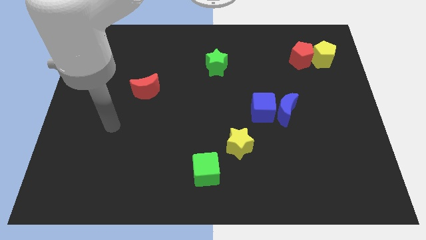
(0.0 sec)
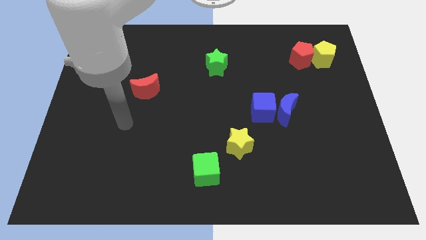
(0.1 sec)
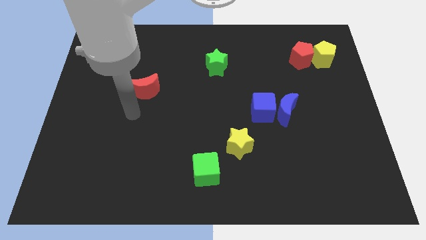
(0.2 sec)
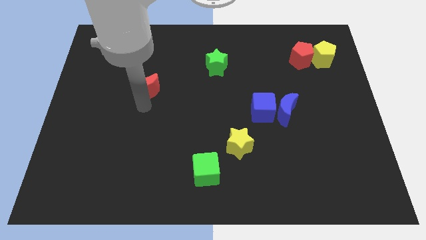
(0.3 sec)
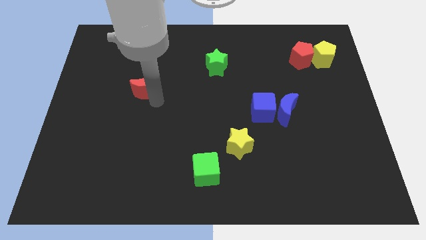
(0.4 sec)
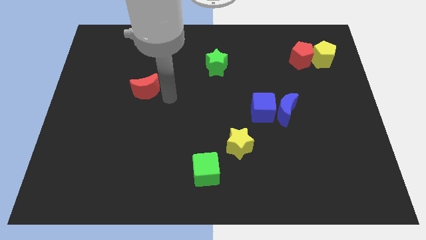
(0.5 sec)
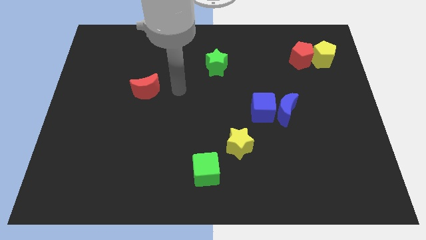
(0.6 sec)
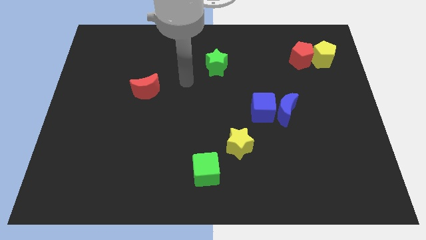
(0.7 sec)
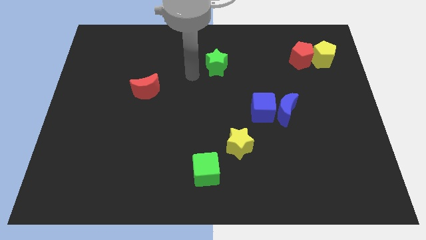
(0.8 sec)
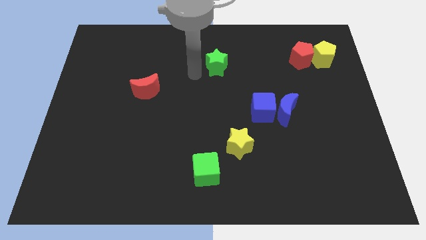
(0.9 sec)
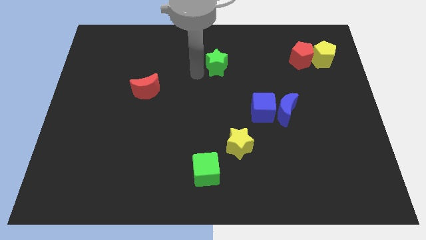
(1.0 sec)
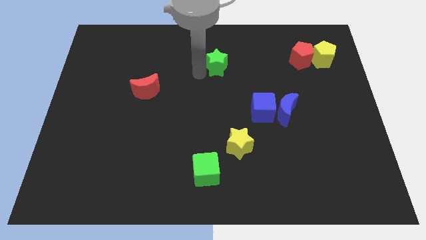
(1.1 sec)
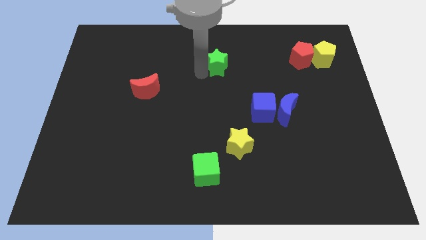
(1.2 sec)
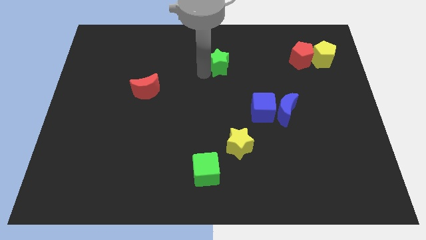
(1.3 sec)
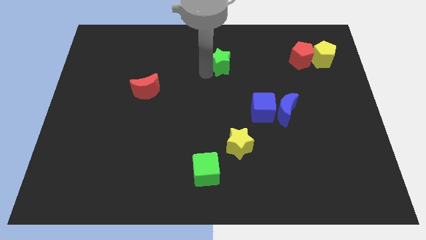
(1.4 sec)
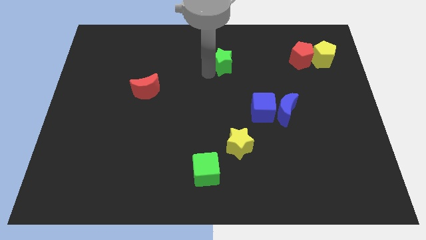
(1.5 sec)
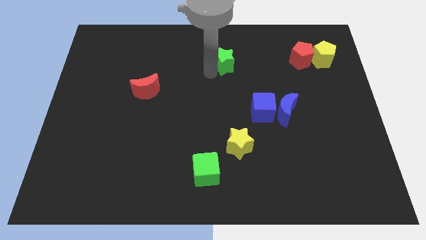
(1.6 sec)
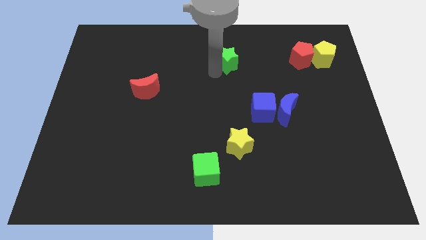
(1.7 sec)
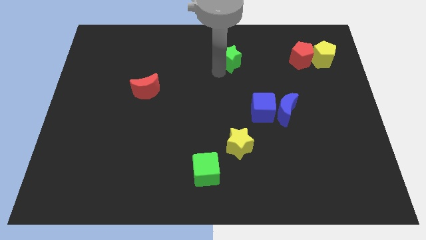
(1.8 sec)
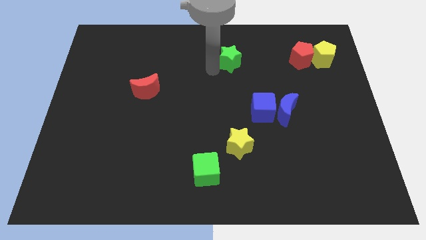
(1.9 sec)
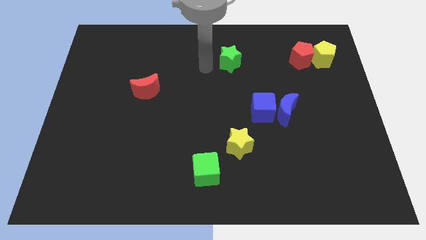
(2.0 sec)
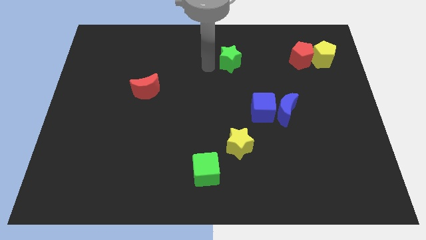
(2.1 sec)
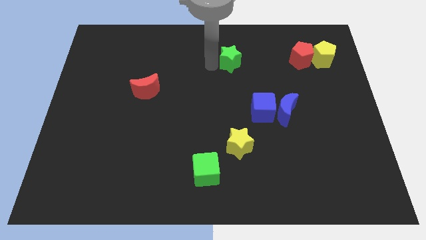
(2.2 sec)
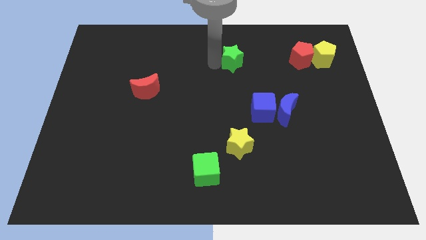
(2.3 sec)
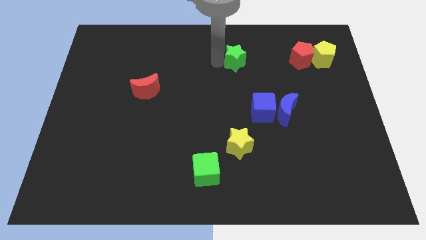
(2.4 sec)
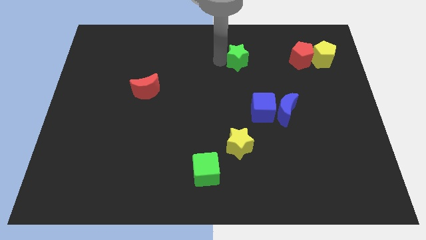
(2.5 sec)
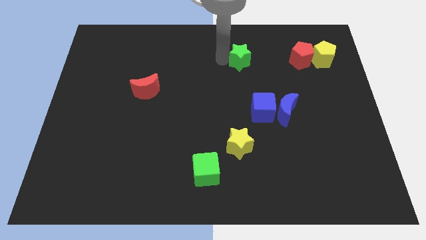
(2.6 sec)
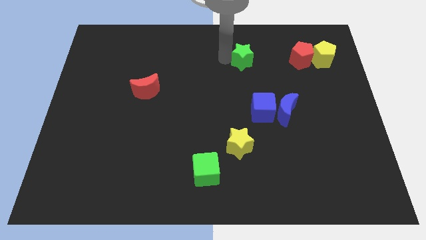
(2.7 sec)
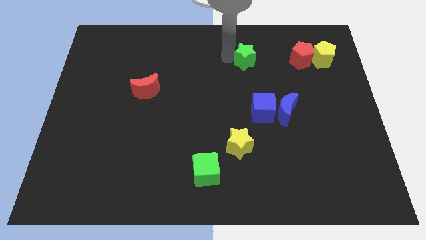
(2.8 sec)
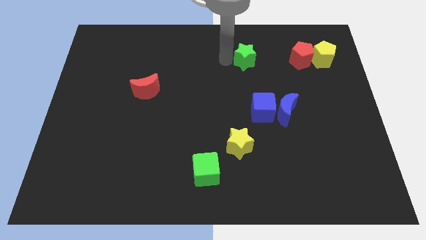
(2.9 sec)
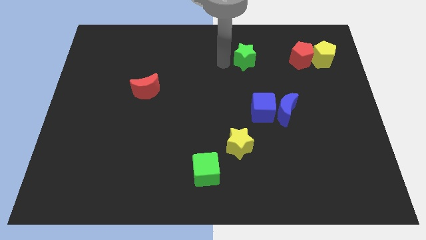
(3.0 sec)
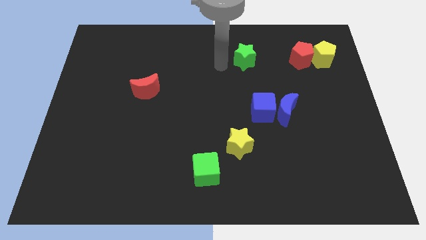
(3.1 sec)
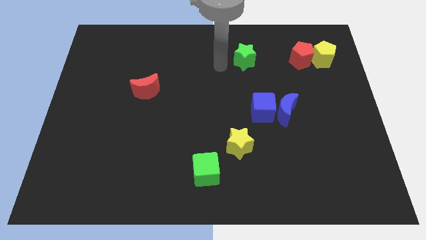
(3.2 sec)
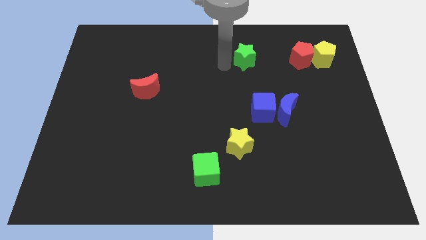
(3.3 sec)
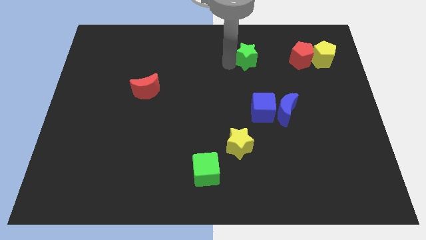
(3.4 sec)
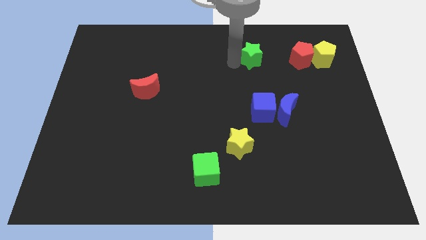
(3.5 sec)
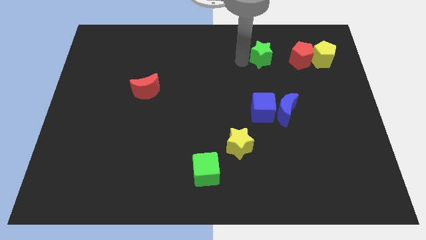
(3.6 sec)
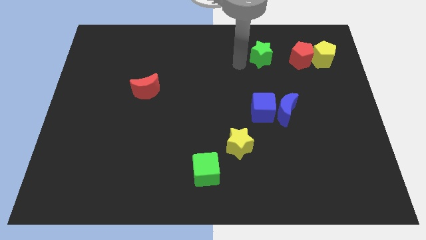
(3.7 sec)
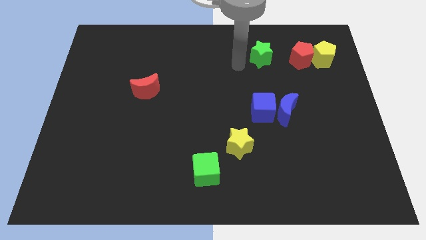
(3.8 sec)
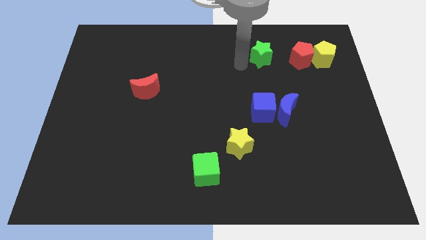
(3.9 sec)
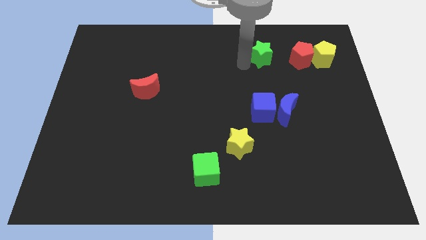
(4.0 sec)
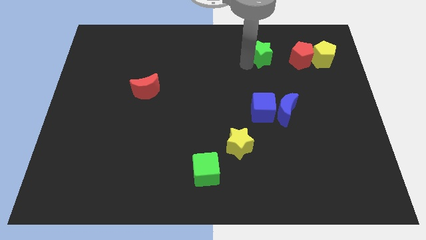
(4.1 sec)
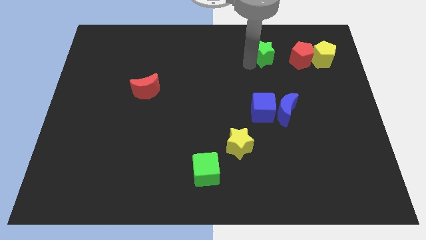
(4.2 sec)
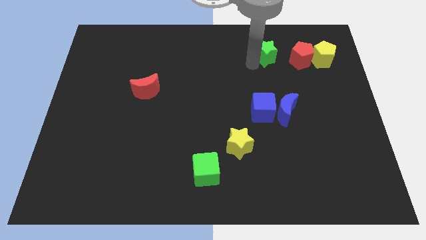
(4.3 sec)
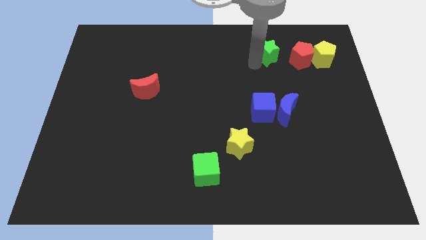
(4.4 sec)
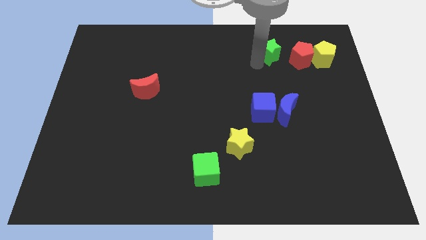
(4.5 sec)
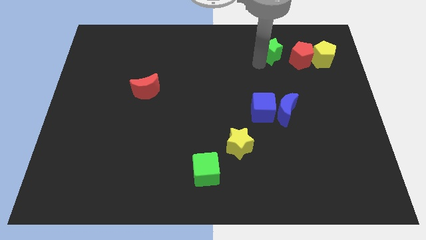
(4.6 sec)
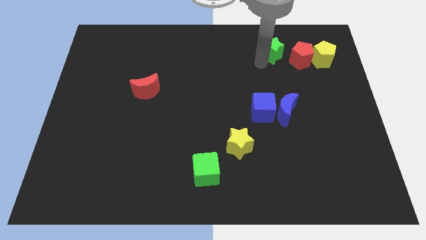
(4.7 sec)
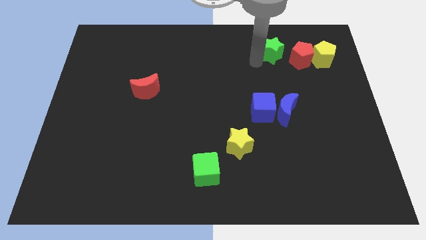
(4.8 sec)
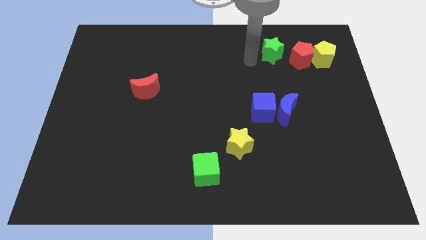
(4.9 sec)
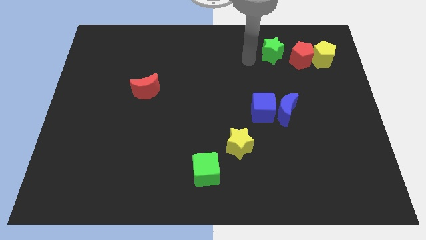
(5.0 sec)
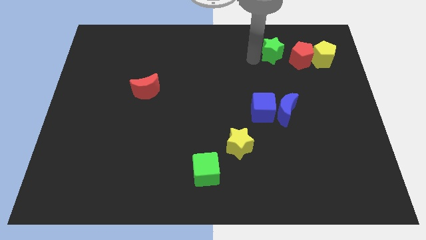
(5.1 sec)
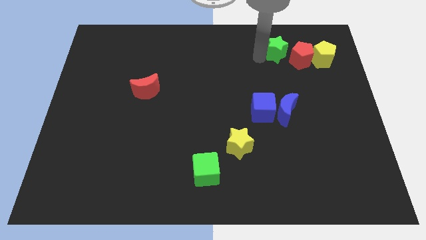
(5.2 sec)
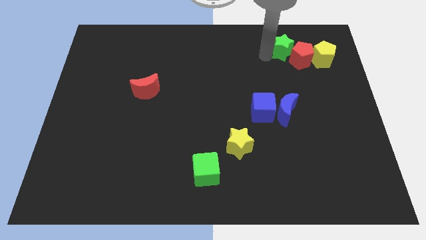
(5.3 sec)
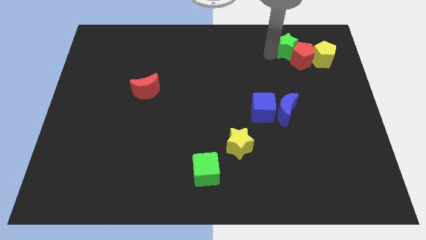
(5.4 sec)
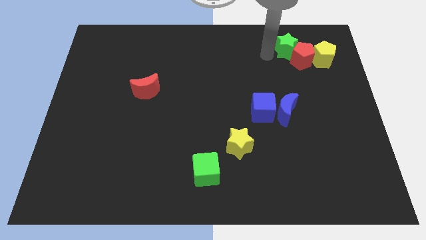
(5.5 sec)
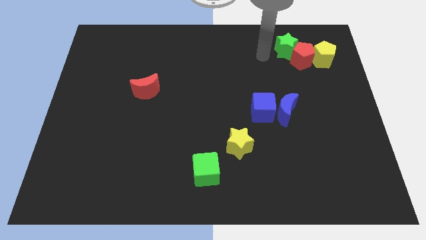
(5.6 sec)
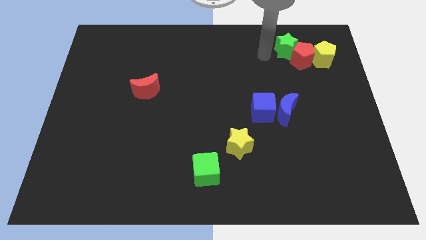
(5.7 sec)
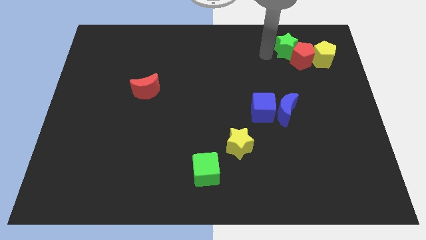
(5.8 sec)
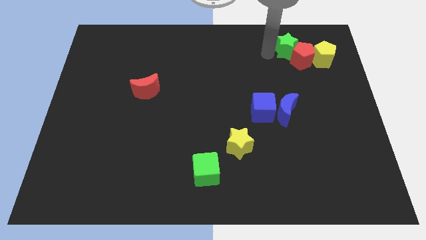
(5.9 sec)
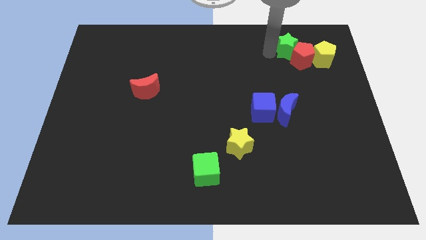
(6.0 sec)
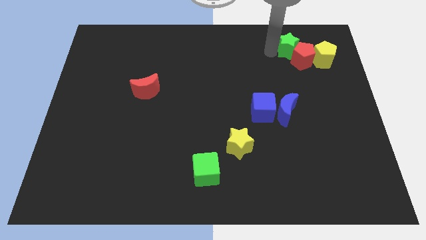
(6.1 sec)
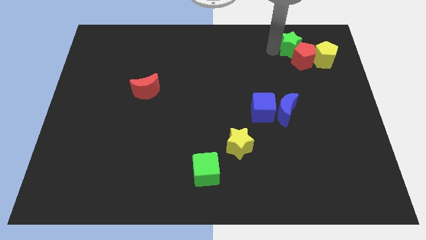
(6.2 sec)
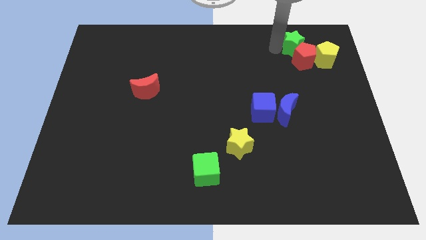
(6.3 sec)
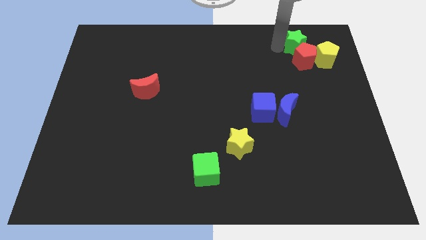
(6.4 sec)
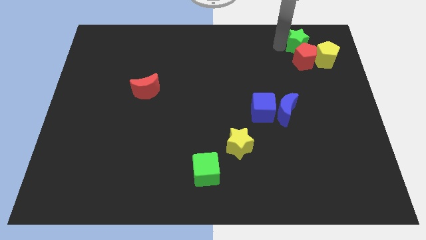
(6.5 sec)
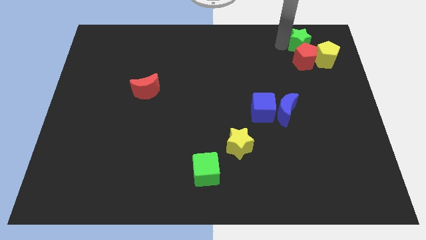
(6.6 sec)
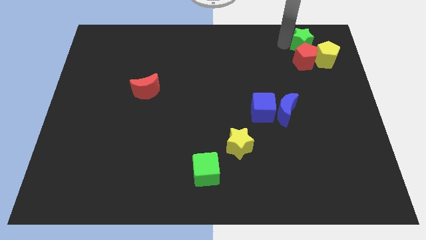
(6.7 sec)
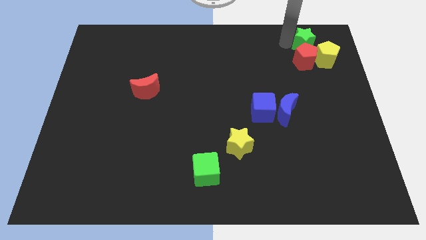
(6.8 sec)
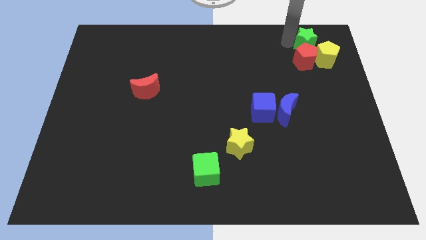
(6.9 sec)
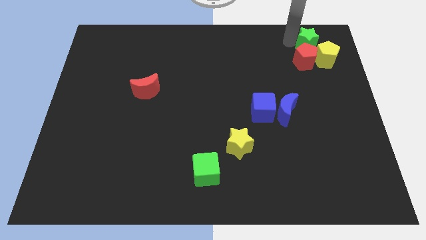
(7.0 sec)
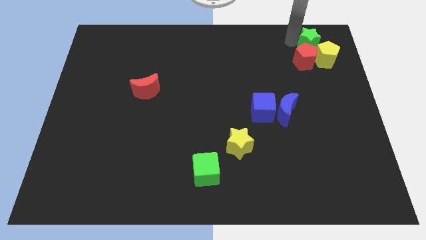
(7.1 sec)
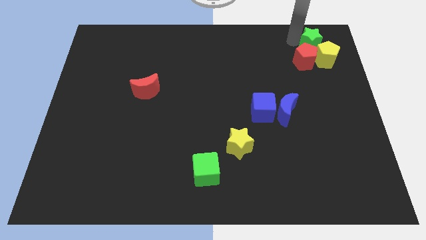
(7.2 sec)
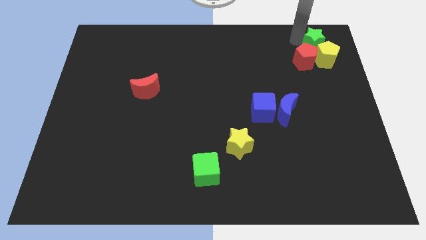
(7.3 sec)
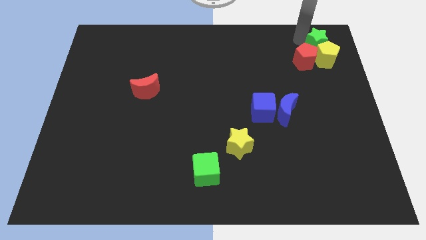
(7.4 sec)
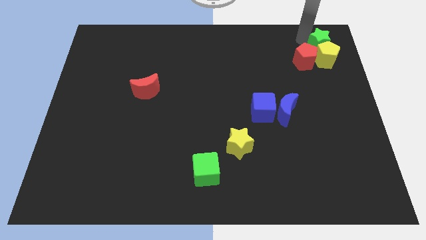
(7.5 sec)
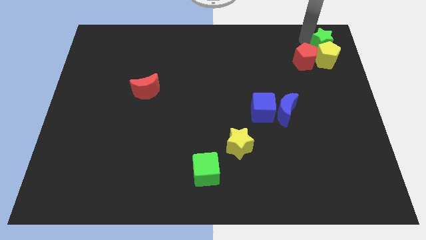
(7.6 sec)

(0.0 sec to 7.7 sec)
slide the green star to the upper right corner
